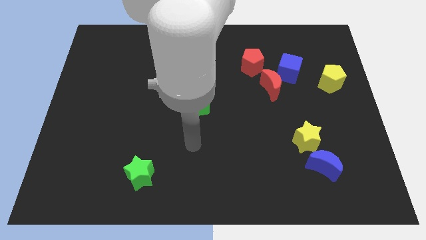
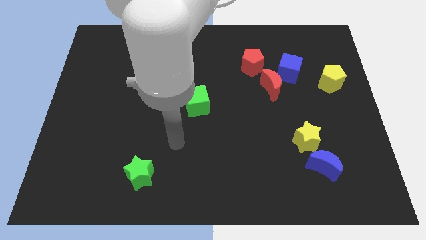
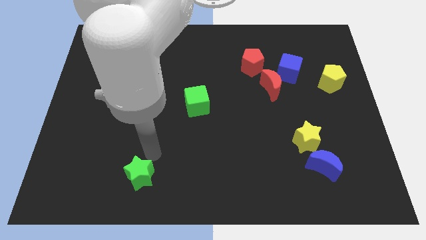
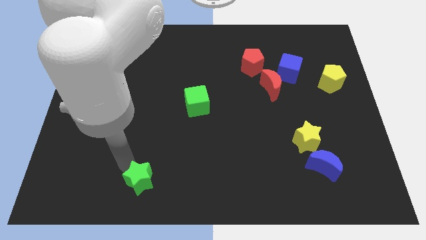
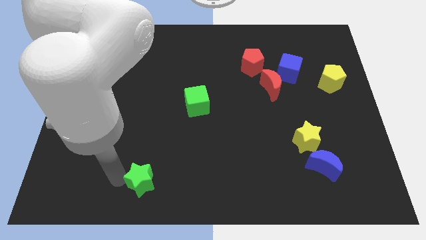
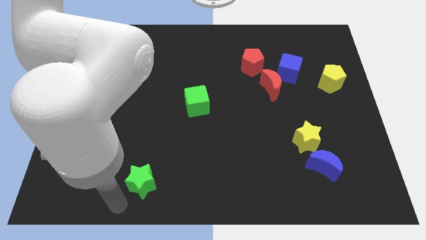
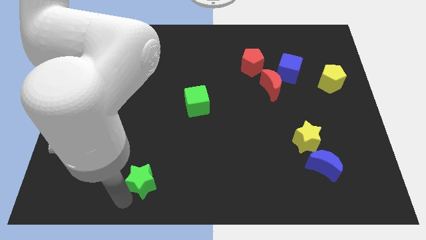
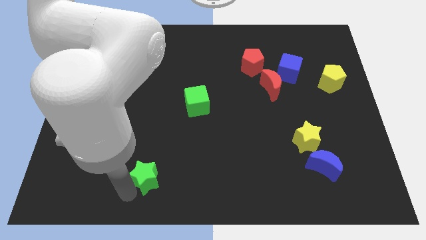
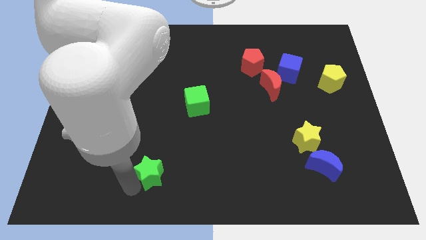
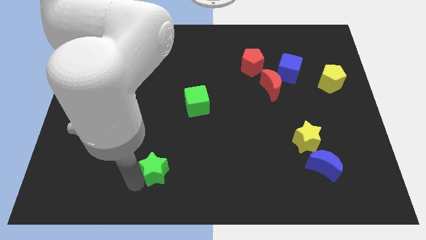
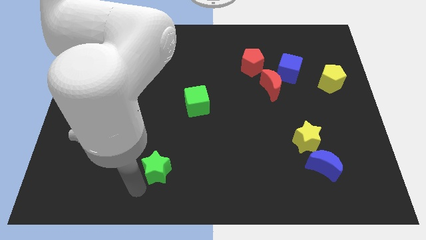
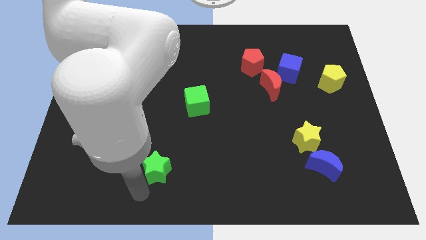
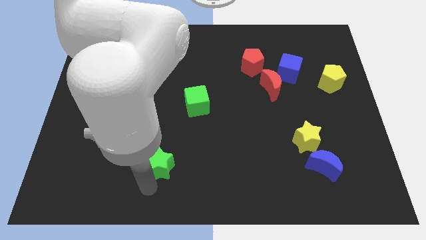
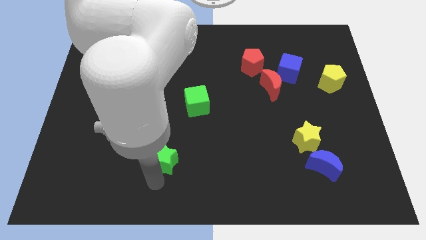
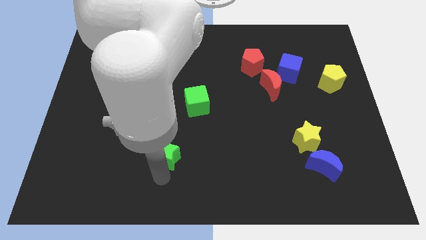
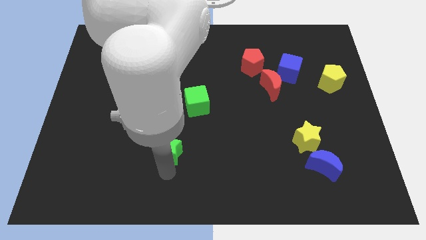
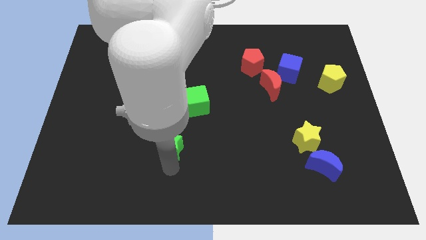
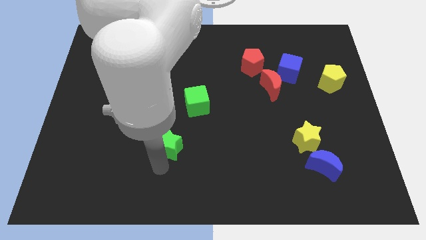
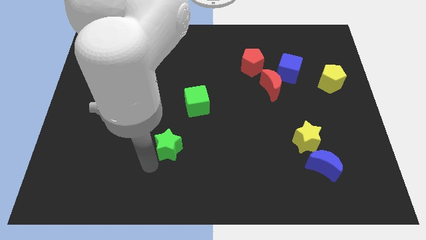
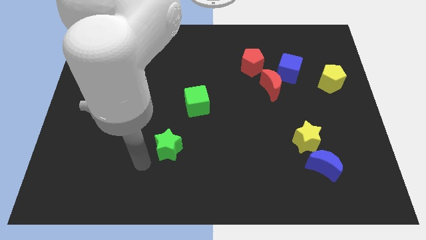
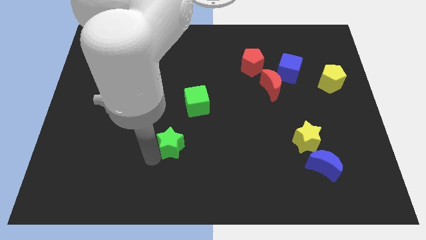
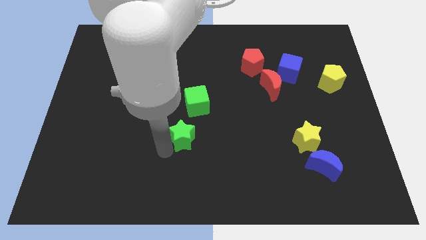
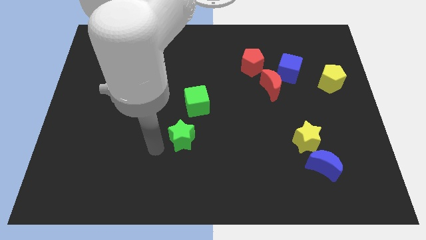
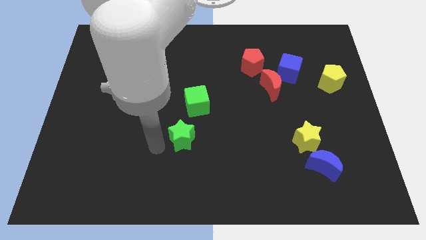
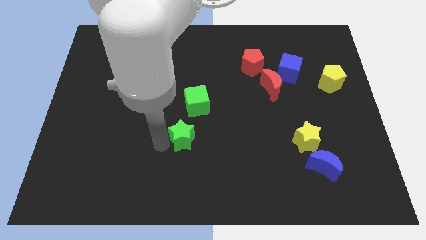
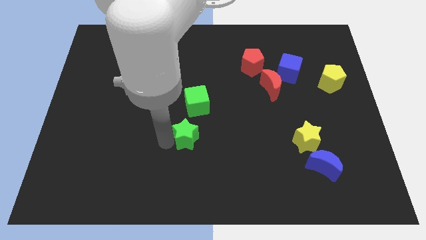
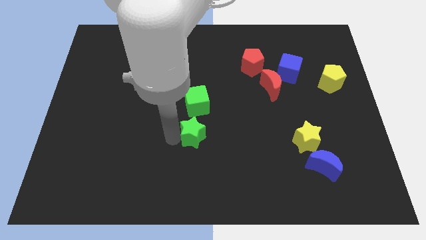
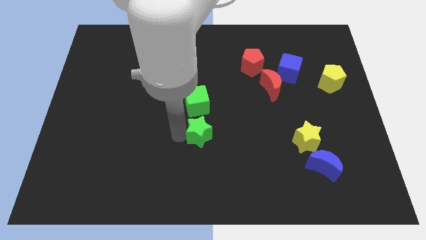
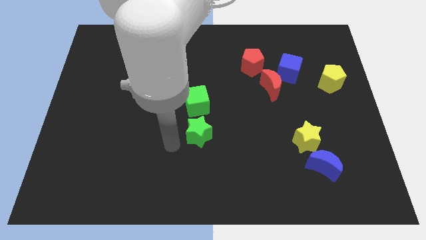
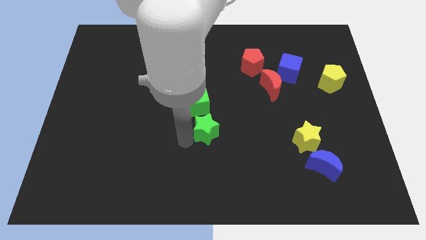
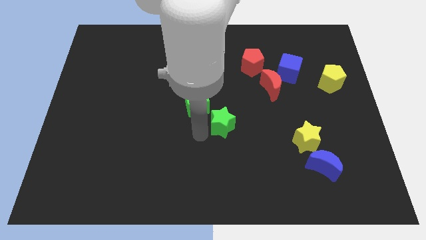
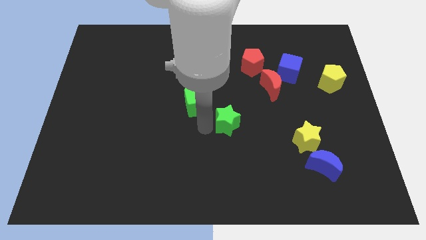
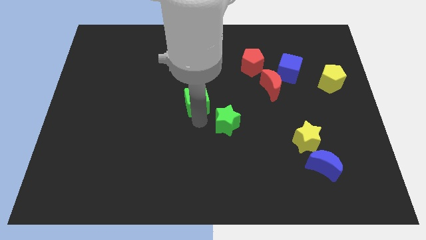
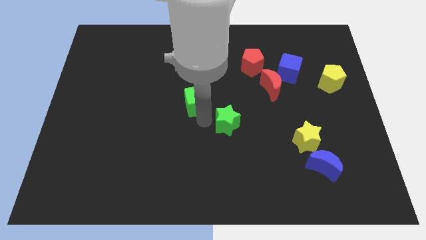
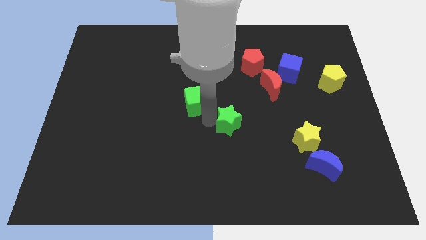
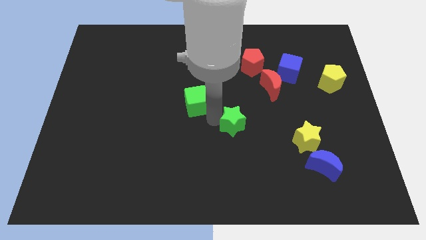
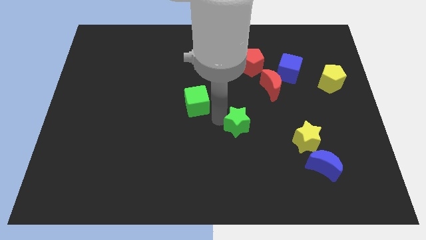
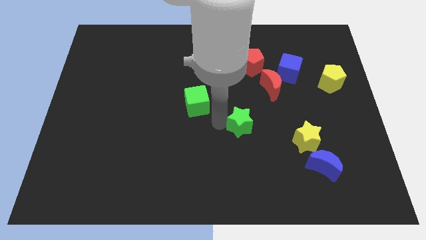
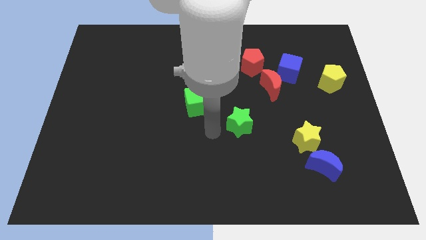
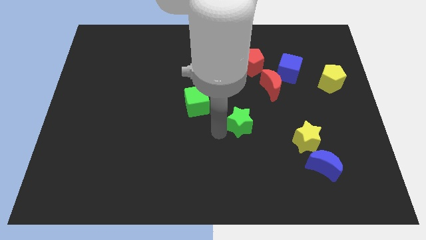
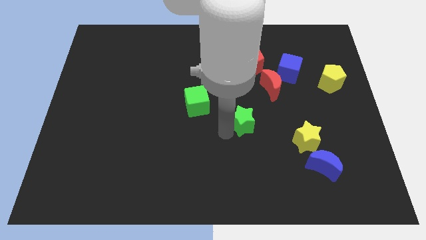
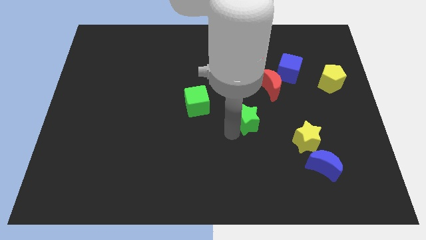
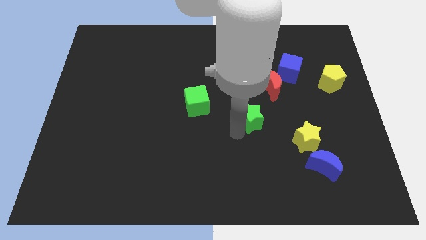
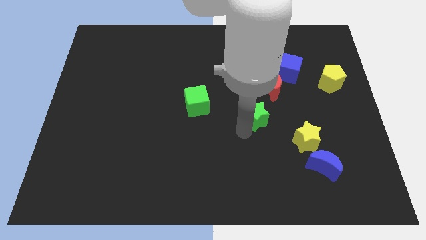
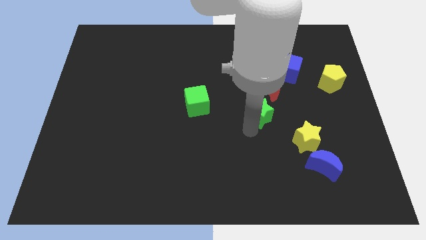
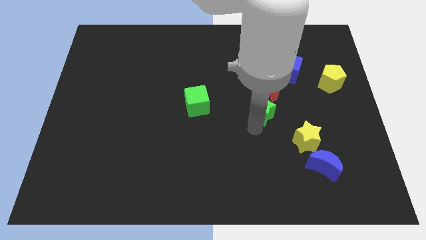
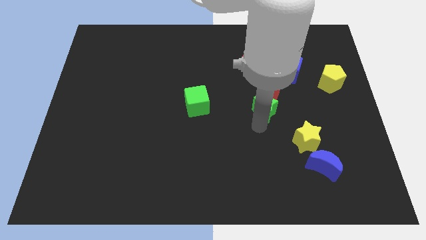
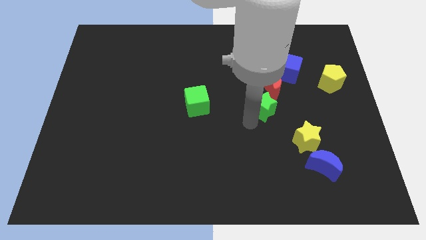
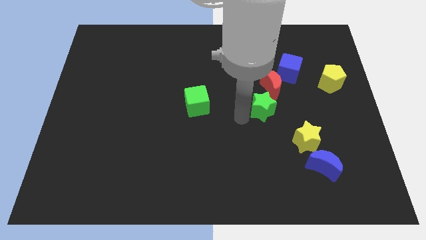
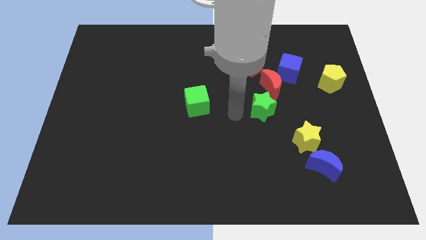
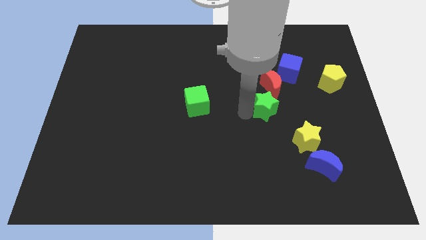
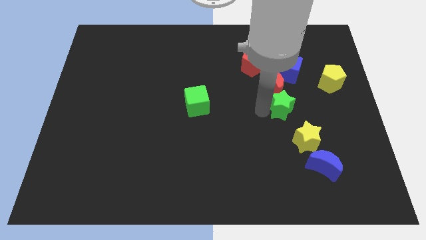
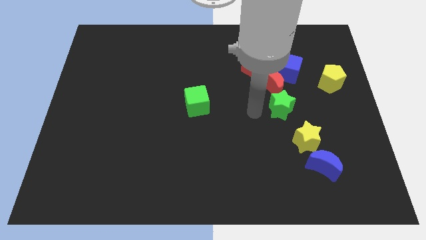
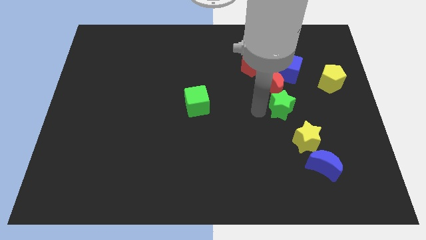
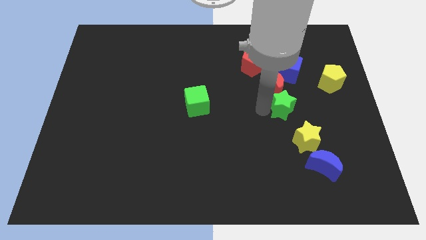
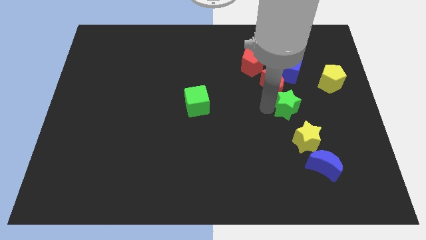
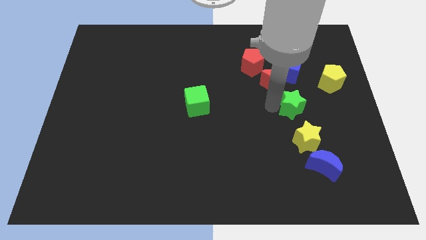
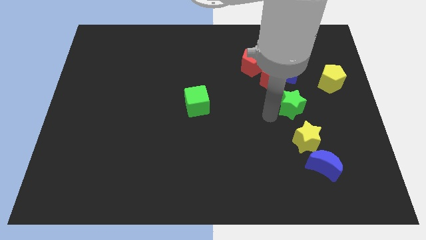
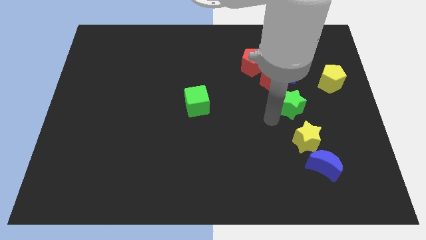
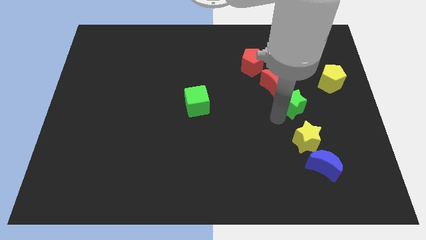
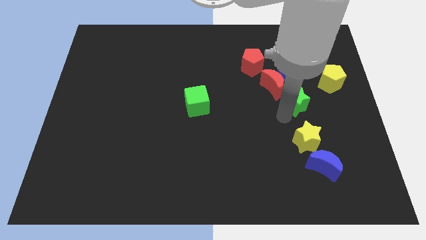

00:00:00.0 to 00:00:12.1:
move the green star to the bottom left side of the yellow pentagon

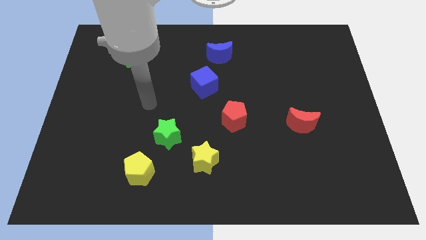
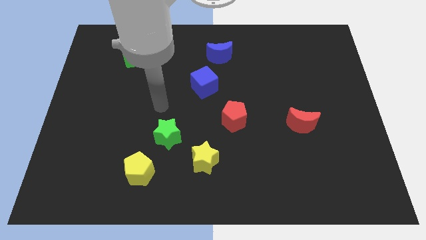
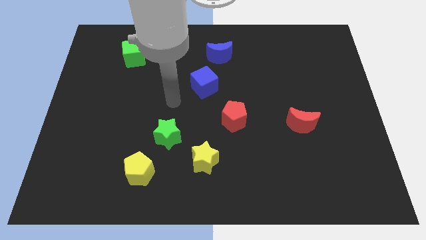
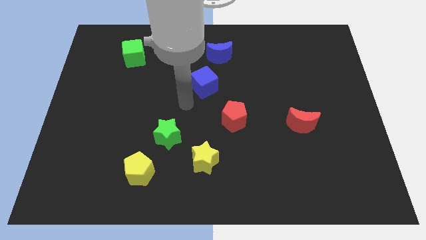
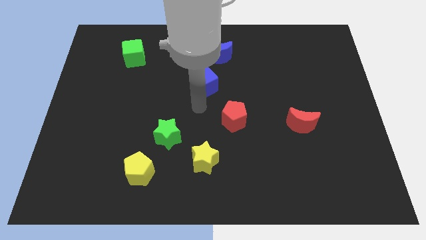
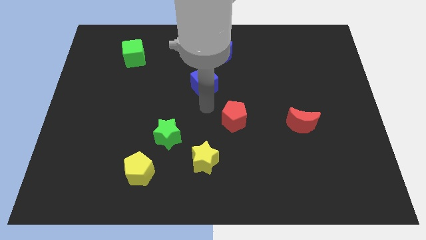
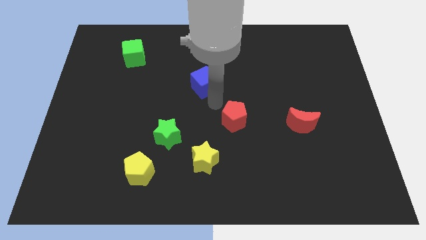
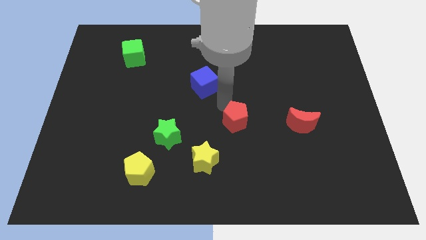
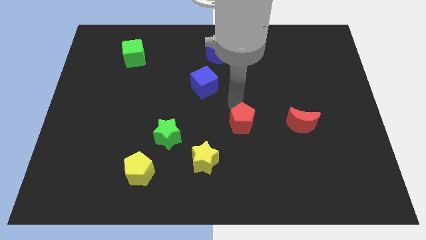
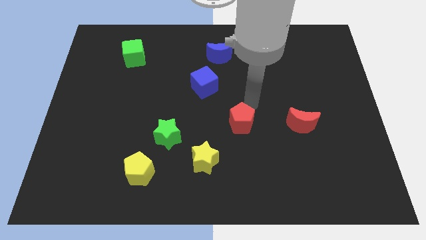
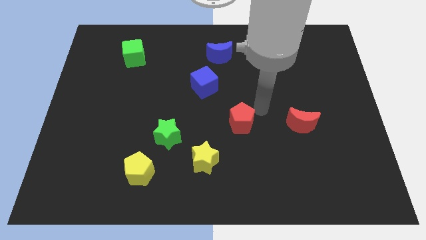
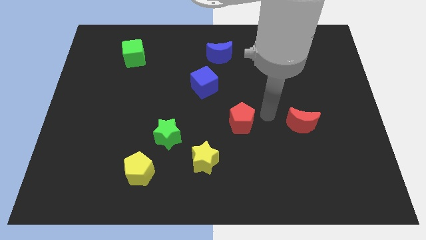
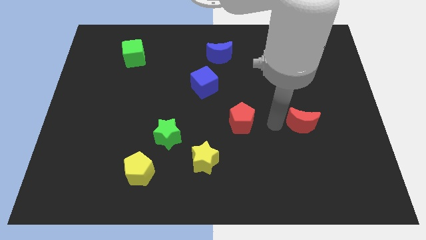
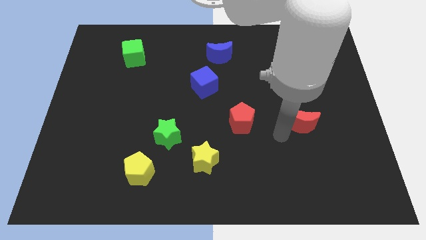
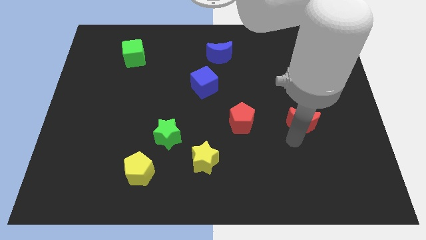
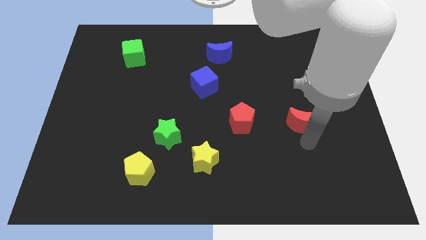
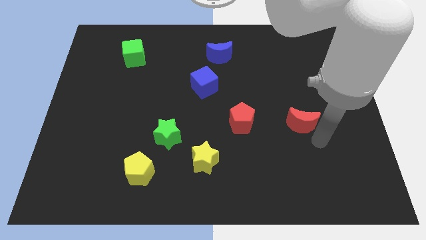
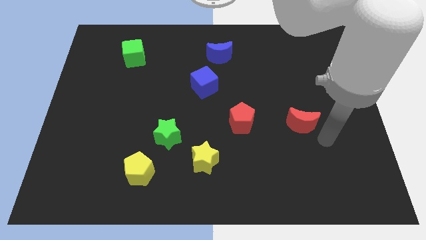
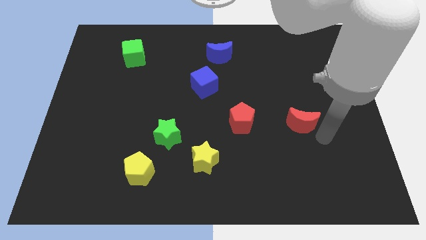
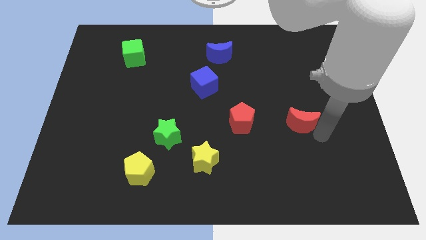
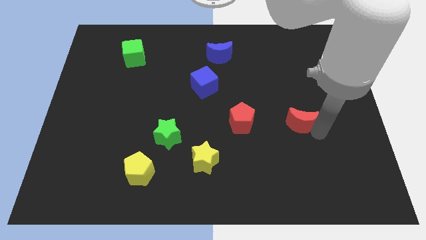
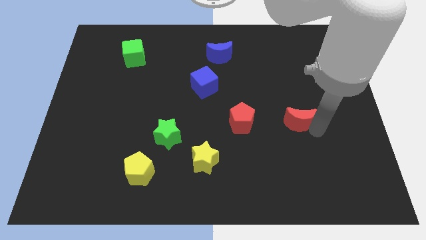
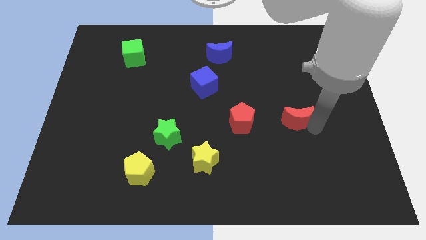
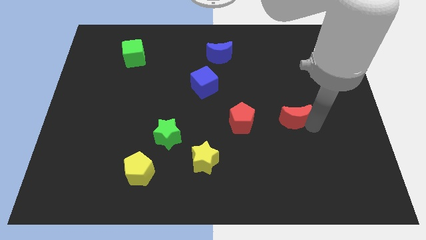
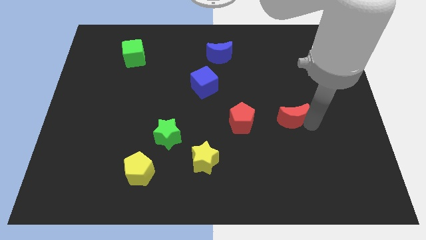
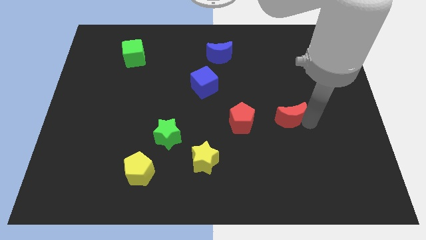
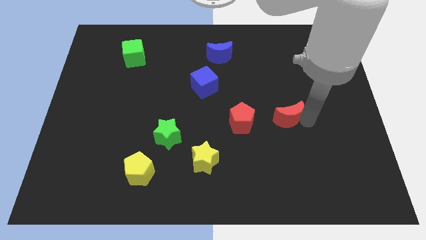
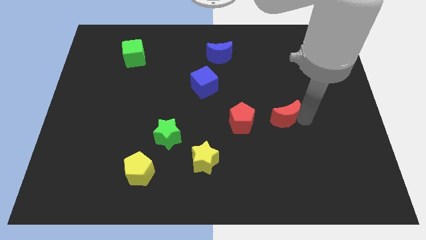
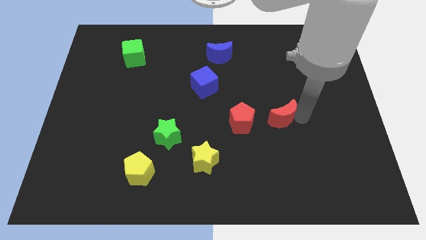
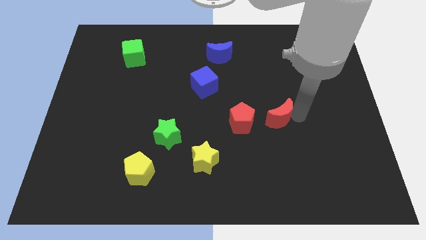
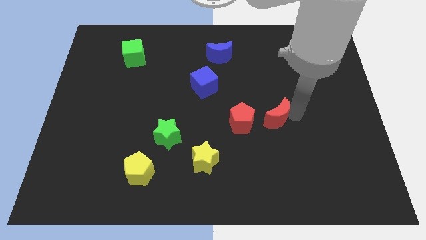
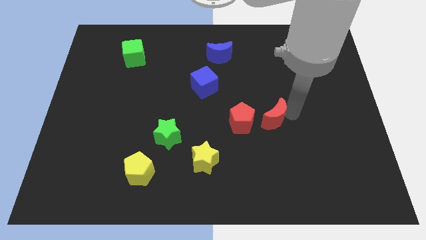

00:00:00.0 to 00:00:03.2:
move the red moon to the top right of the red pentagon
